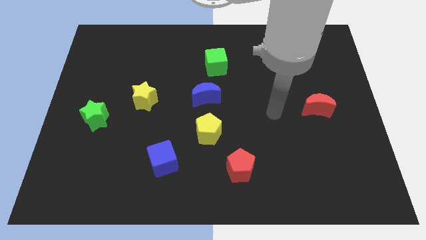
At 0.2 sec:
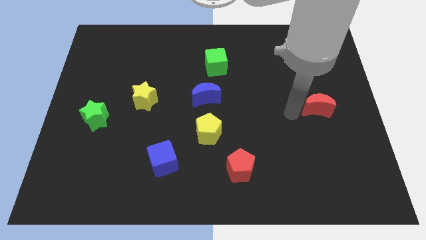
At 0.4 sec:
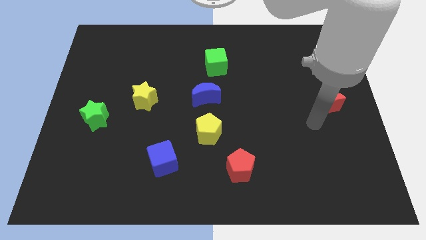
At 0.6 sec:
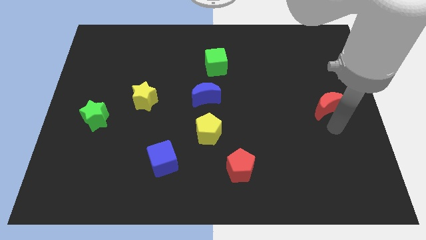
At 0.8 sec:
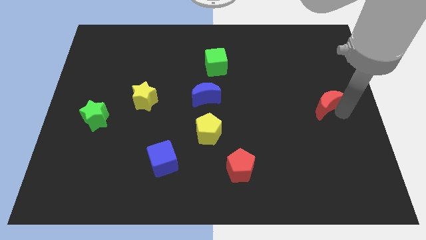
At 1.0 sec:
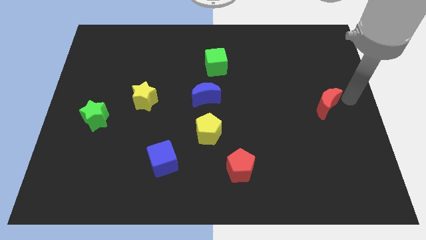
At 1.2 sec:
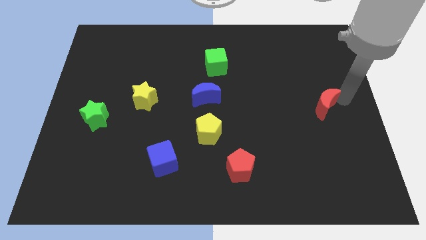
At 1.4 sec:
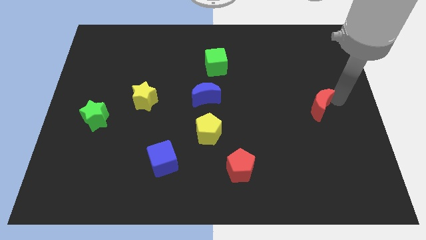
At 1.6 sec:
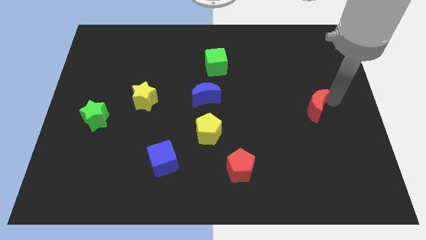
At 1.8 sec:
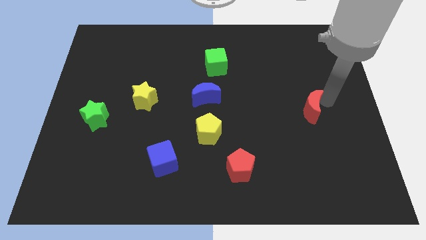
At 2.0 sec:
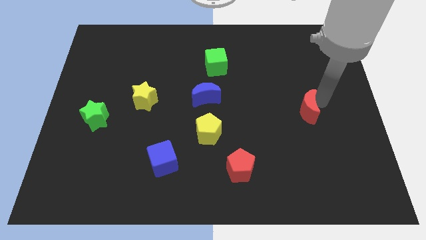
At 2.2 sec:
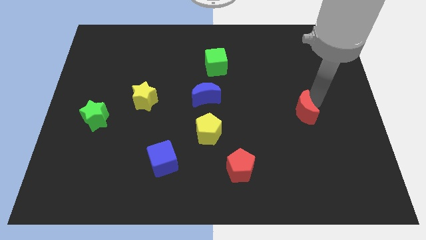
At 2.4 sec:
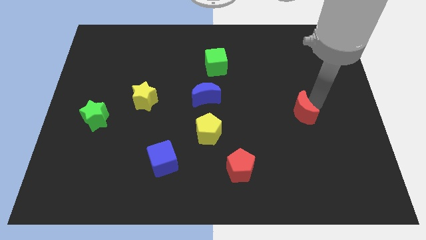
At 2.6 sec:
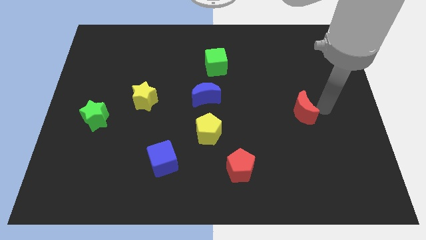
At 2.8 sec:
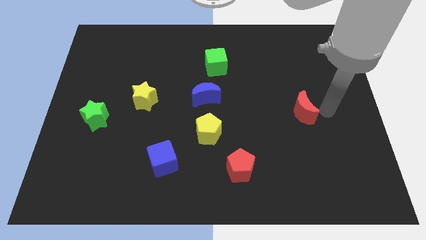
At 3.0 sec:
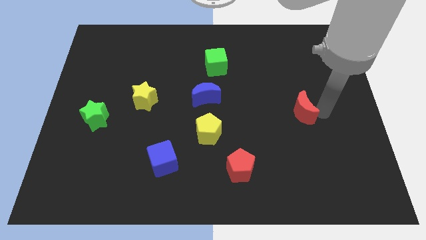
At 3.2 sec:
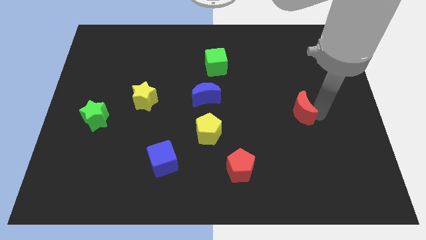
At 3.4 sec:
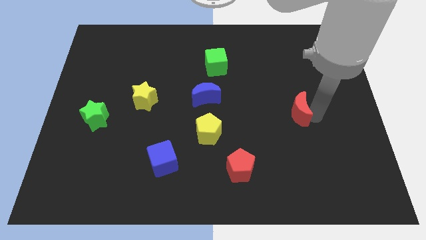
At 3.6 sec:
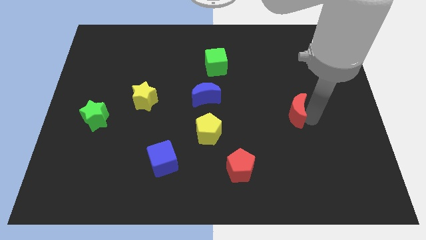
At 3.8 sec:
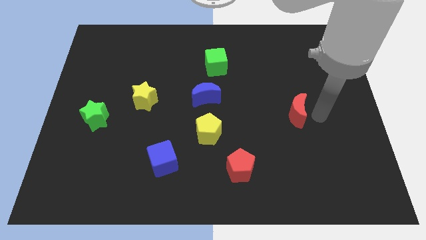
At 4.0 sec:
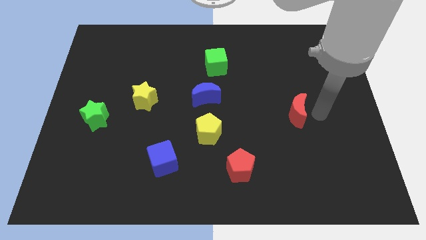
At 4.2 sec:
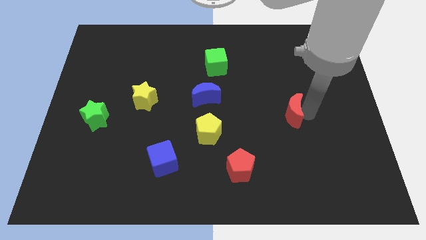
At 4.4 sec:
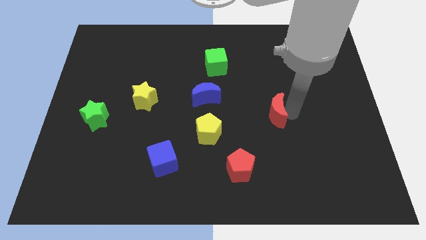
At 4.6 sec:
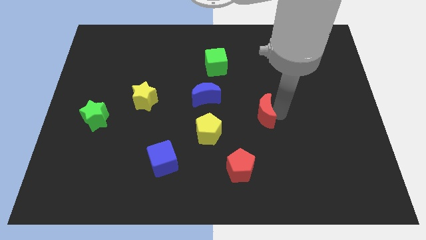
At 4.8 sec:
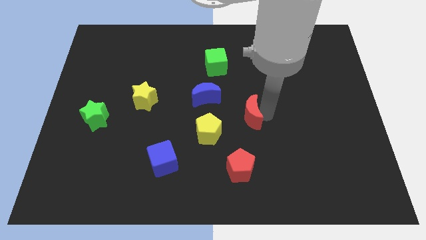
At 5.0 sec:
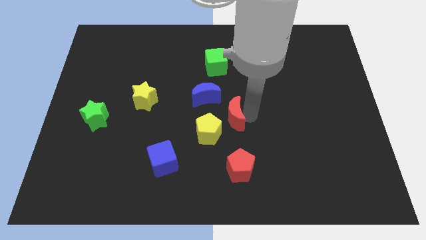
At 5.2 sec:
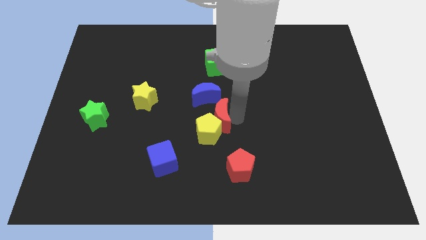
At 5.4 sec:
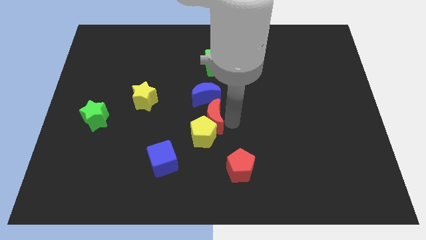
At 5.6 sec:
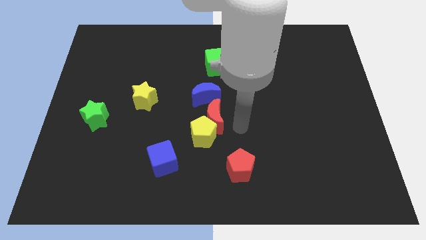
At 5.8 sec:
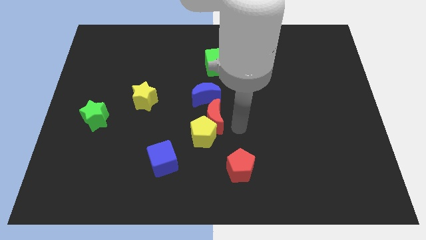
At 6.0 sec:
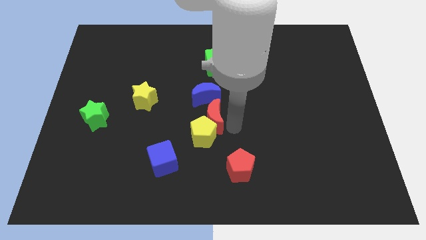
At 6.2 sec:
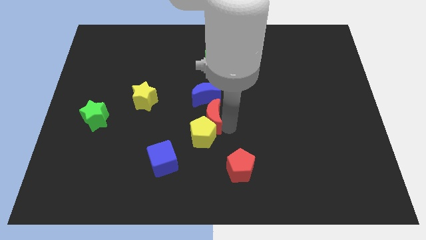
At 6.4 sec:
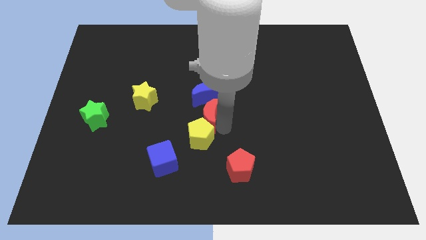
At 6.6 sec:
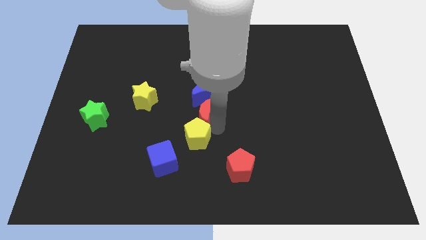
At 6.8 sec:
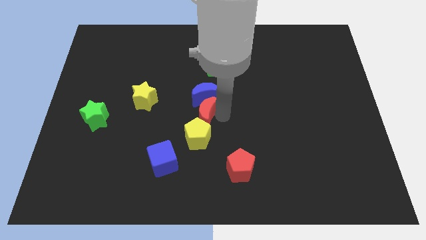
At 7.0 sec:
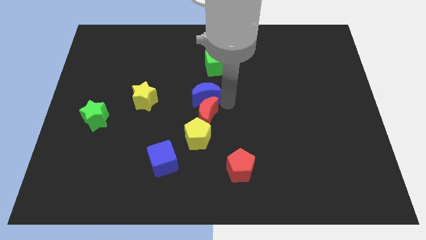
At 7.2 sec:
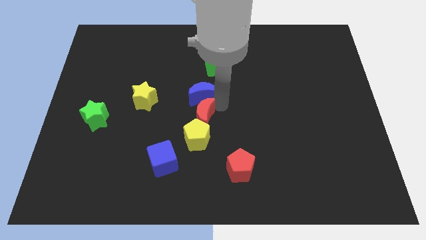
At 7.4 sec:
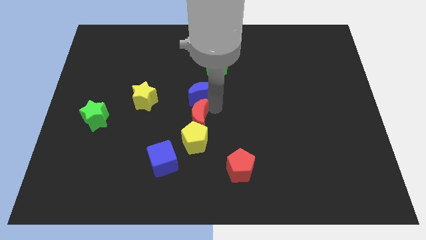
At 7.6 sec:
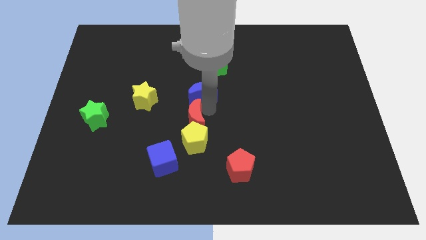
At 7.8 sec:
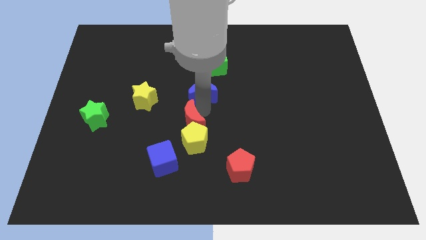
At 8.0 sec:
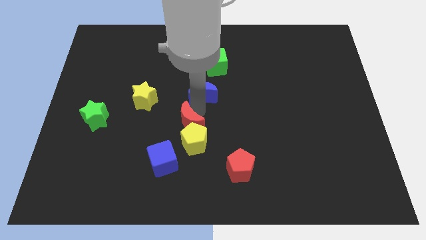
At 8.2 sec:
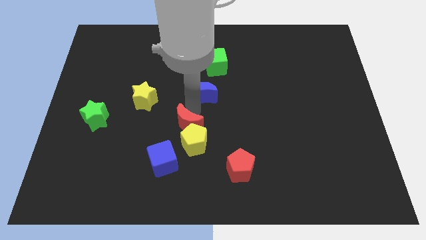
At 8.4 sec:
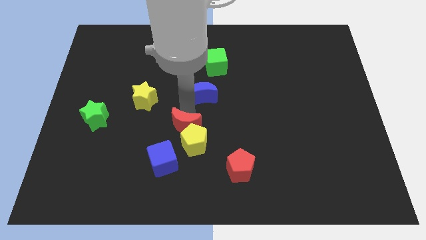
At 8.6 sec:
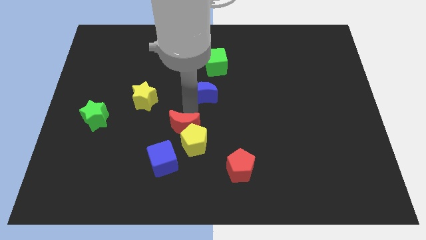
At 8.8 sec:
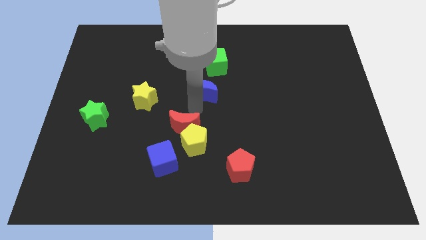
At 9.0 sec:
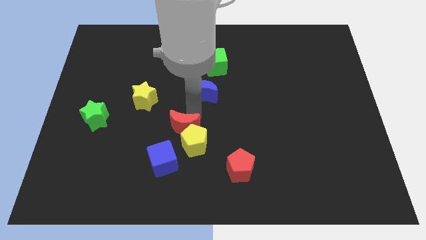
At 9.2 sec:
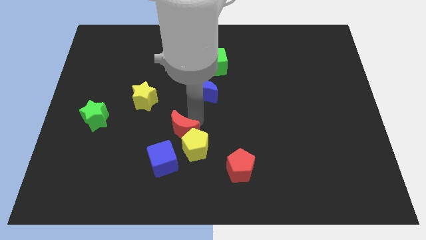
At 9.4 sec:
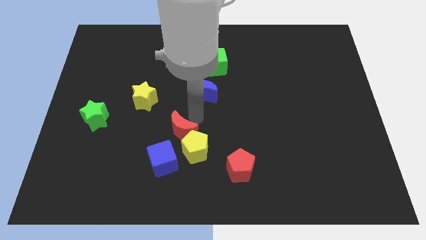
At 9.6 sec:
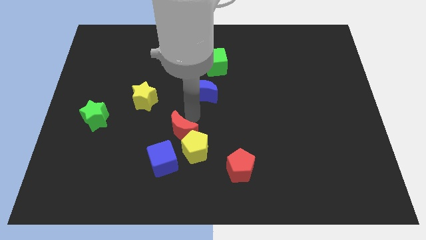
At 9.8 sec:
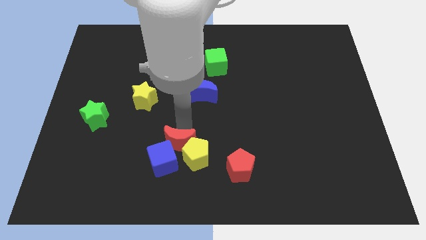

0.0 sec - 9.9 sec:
put the red moon towards the blue cube

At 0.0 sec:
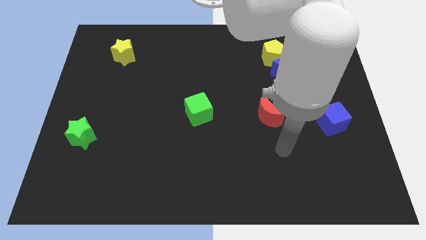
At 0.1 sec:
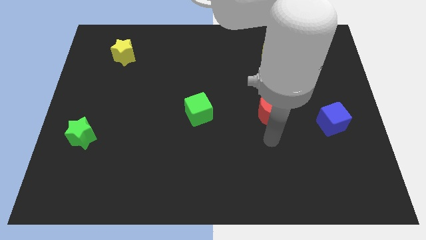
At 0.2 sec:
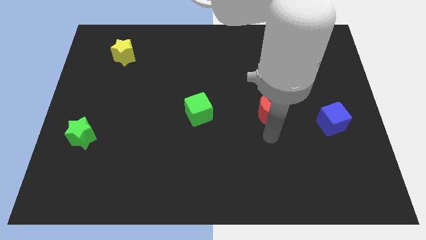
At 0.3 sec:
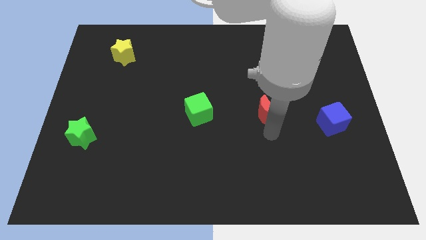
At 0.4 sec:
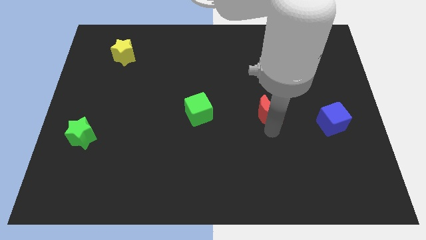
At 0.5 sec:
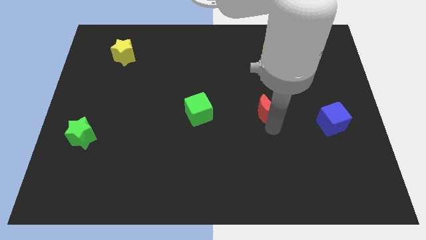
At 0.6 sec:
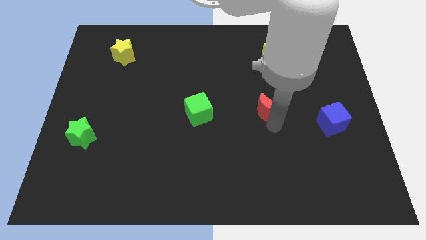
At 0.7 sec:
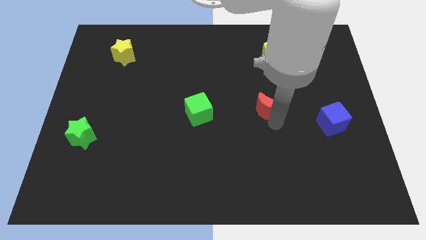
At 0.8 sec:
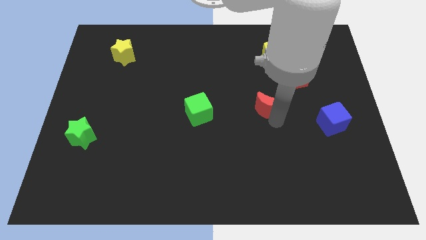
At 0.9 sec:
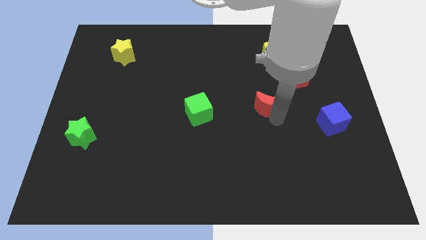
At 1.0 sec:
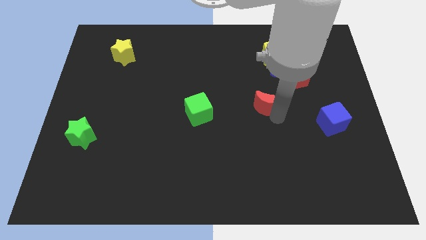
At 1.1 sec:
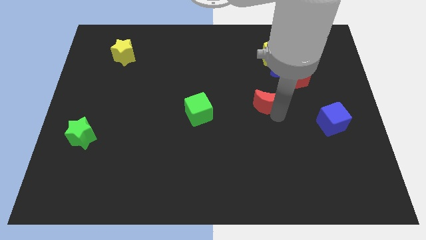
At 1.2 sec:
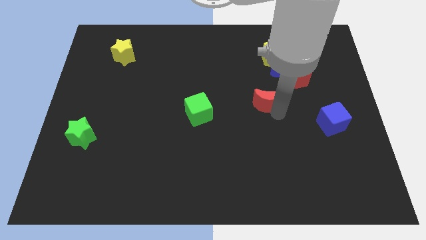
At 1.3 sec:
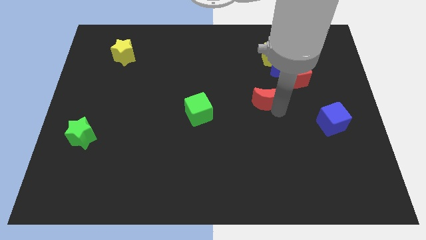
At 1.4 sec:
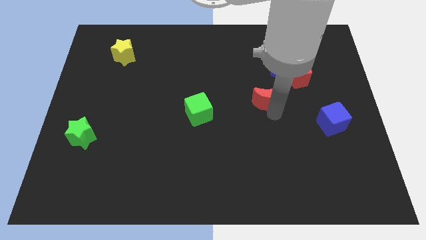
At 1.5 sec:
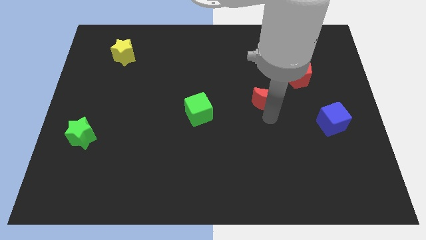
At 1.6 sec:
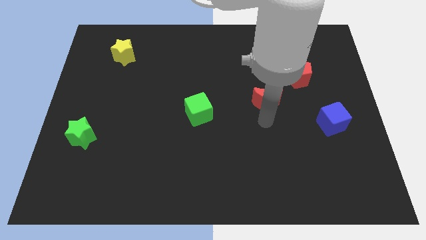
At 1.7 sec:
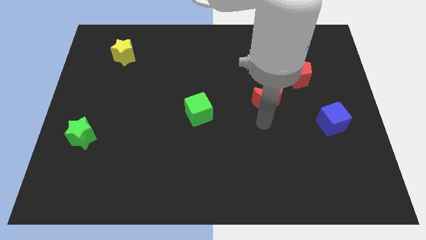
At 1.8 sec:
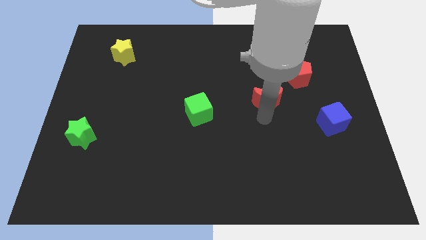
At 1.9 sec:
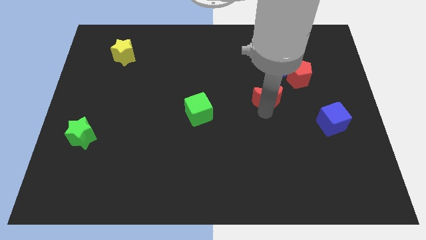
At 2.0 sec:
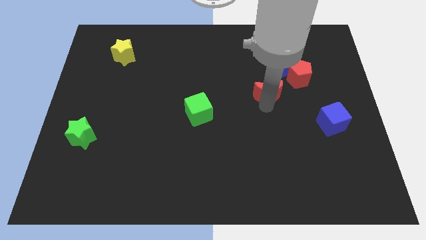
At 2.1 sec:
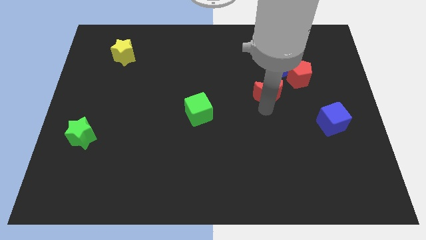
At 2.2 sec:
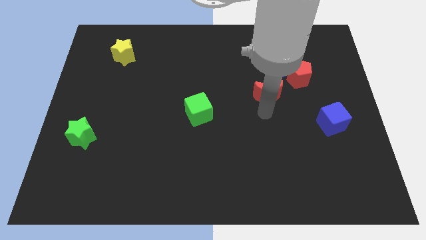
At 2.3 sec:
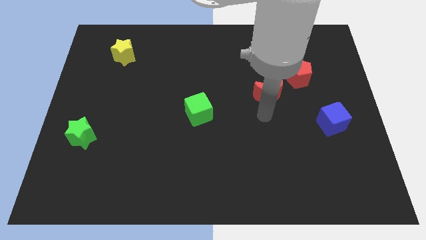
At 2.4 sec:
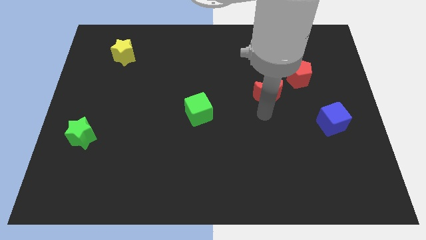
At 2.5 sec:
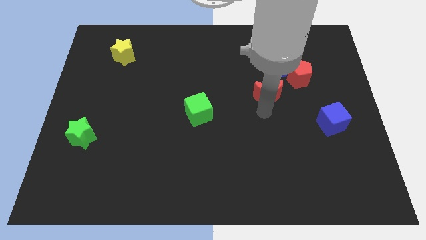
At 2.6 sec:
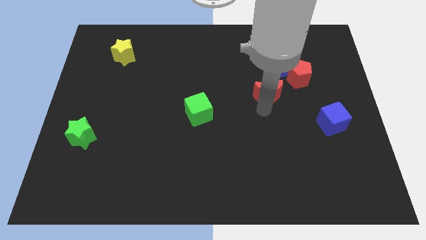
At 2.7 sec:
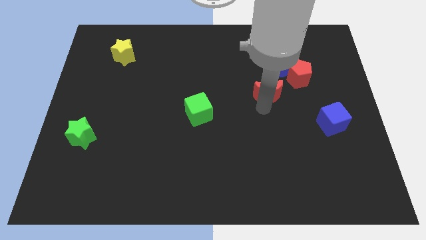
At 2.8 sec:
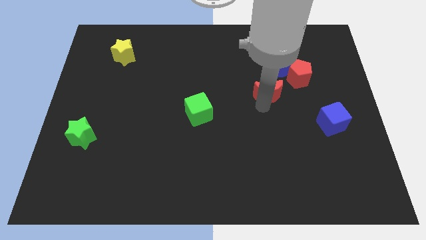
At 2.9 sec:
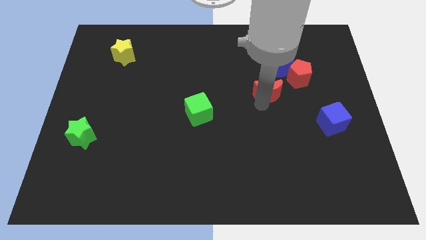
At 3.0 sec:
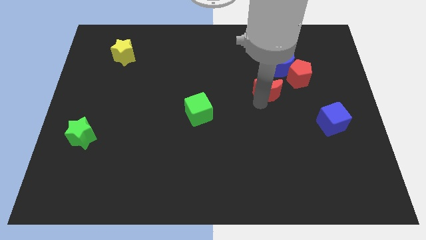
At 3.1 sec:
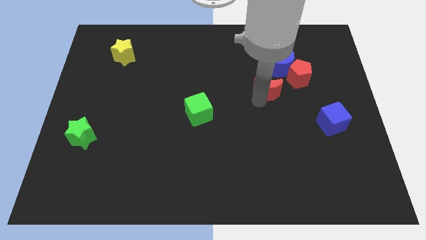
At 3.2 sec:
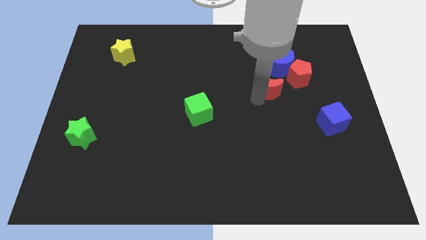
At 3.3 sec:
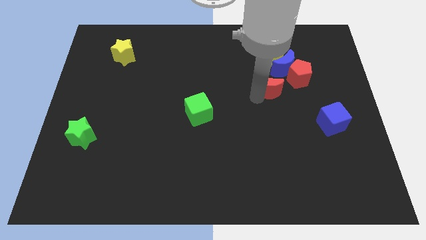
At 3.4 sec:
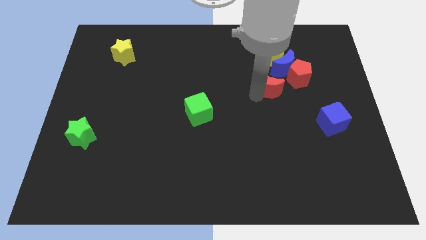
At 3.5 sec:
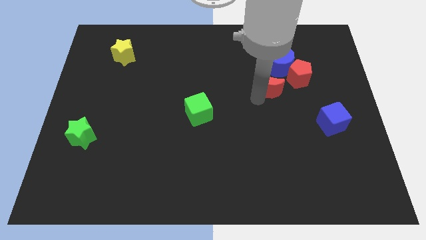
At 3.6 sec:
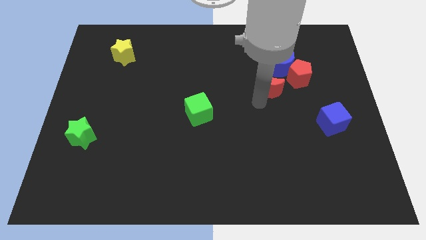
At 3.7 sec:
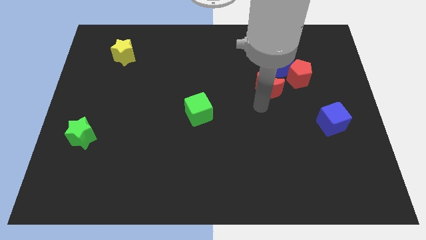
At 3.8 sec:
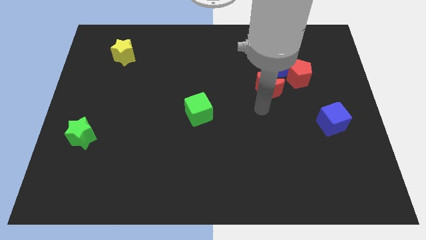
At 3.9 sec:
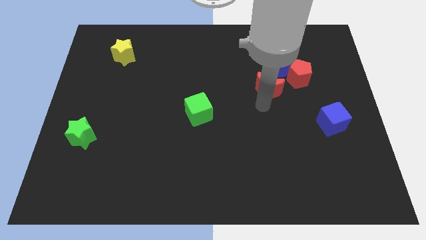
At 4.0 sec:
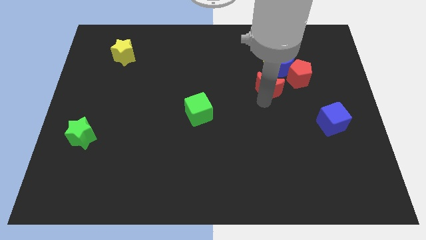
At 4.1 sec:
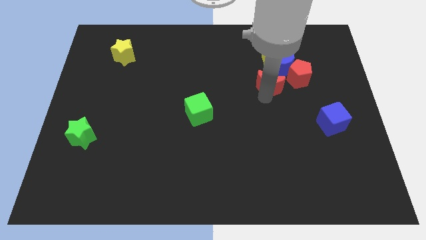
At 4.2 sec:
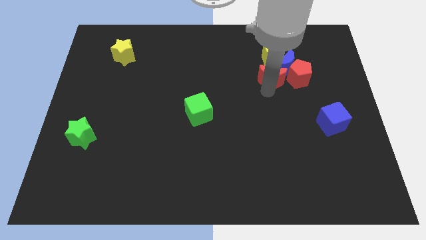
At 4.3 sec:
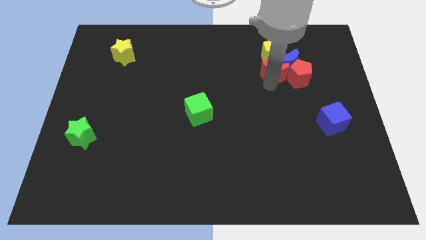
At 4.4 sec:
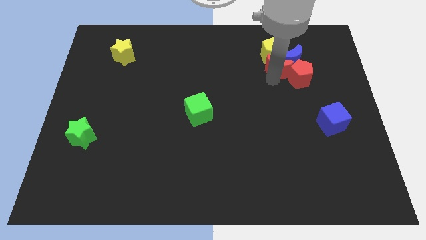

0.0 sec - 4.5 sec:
put the red moon next to the yellow pentagon
